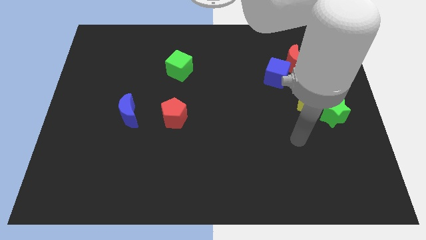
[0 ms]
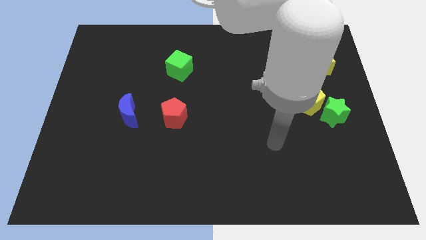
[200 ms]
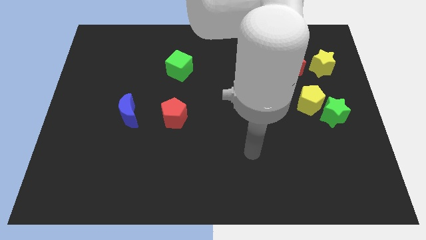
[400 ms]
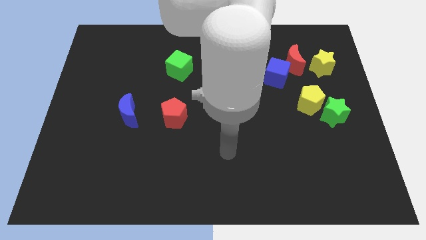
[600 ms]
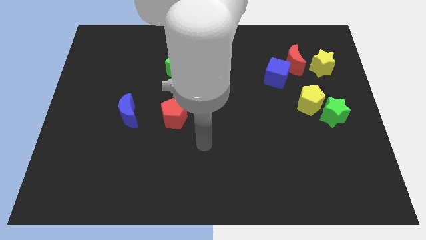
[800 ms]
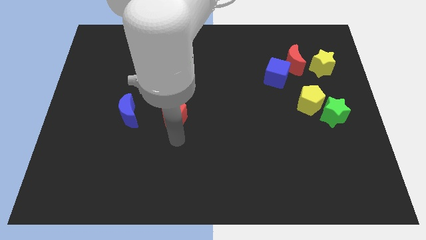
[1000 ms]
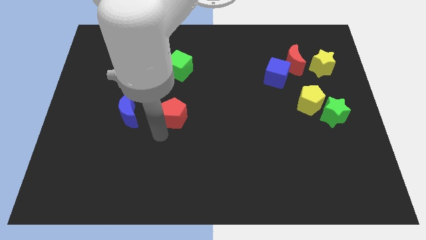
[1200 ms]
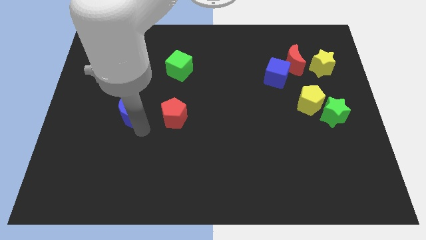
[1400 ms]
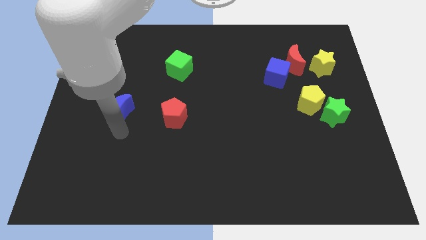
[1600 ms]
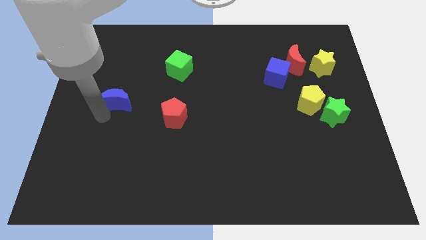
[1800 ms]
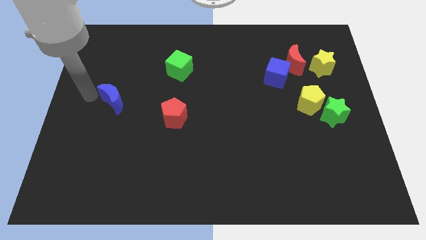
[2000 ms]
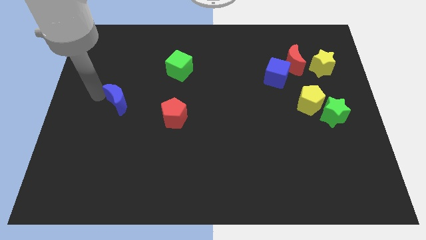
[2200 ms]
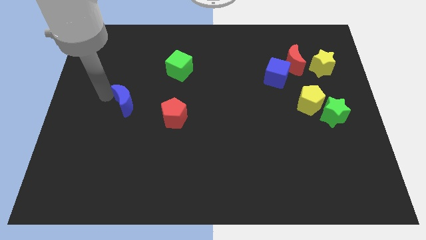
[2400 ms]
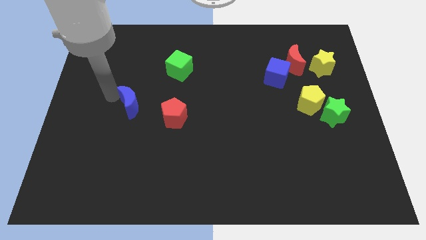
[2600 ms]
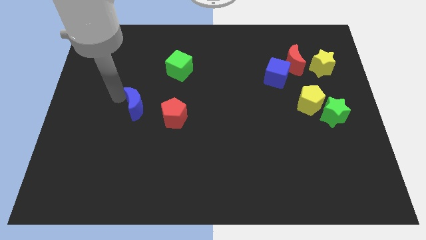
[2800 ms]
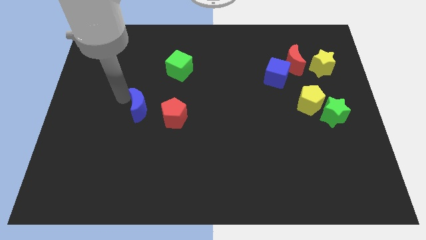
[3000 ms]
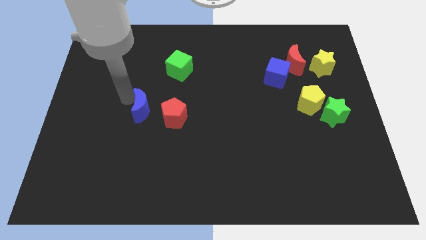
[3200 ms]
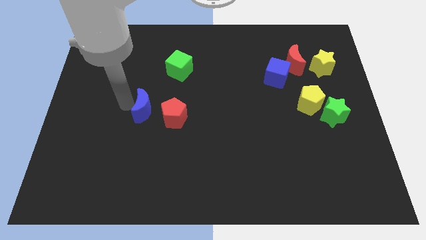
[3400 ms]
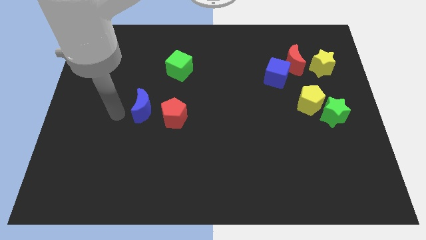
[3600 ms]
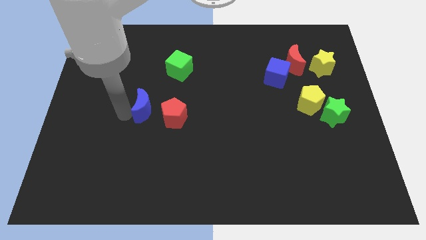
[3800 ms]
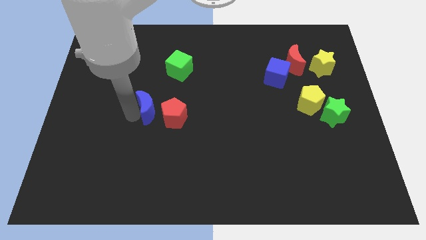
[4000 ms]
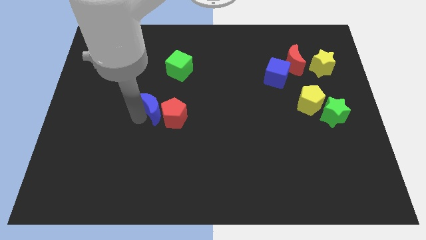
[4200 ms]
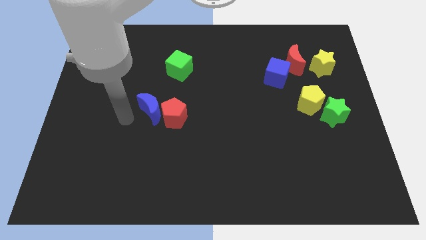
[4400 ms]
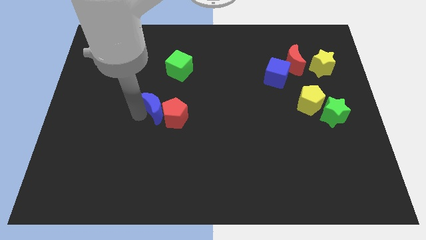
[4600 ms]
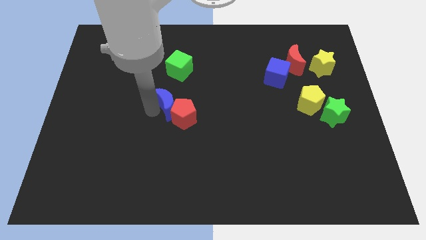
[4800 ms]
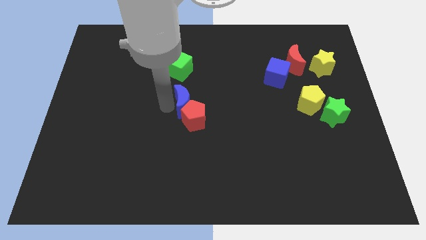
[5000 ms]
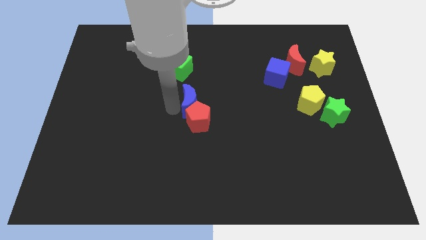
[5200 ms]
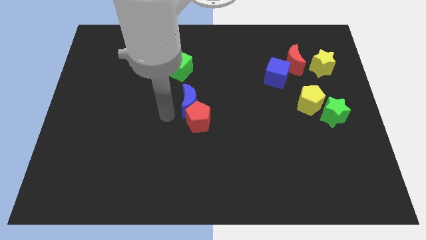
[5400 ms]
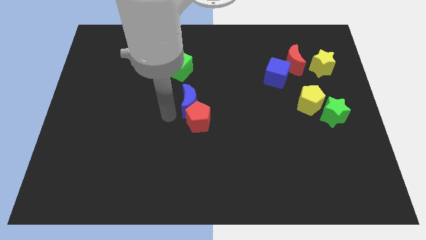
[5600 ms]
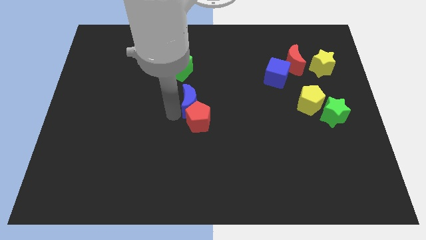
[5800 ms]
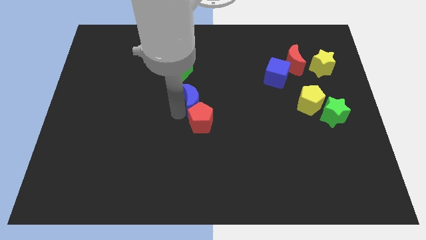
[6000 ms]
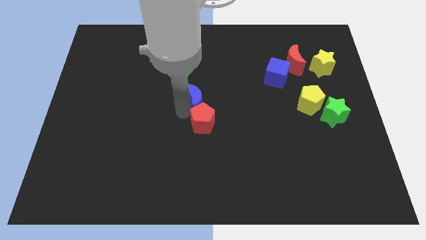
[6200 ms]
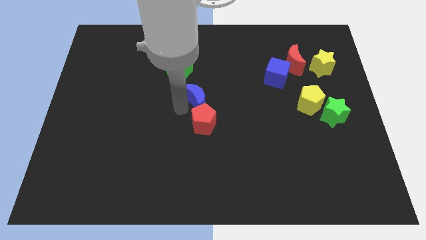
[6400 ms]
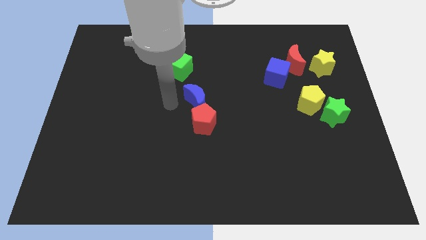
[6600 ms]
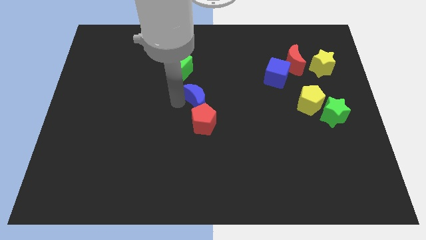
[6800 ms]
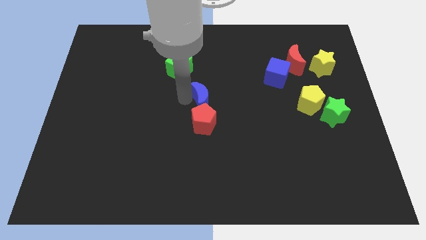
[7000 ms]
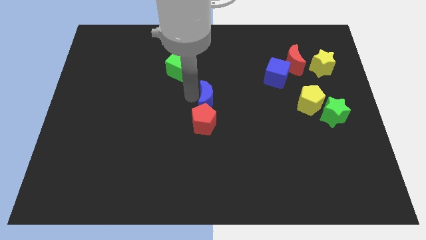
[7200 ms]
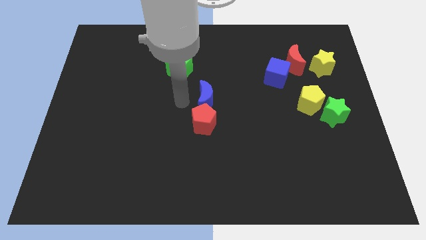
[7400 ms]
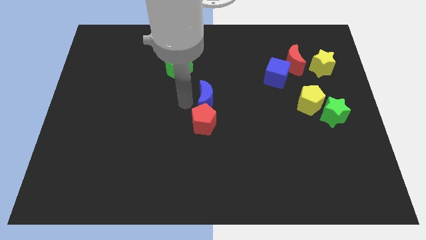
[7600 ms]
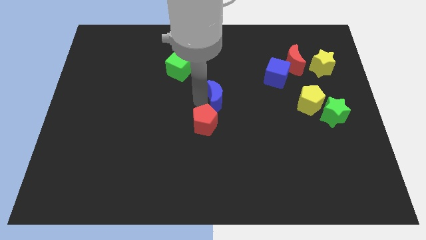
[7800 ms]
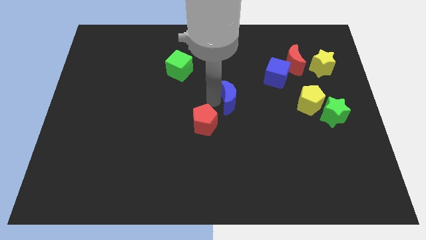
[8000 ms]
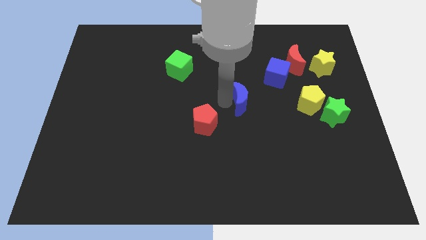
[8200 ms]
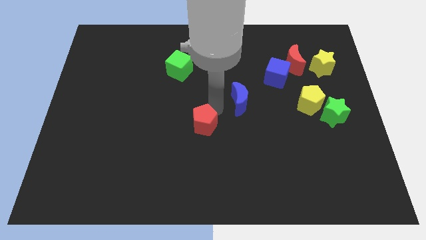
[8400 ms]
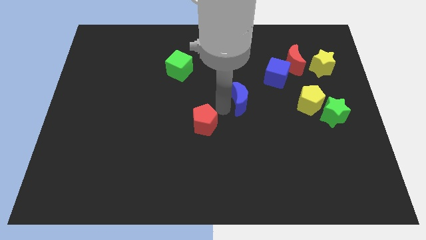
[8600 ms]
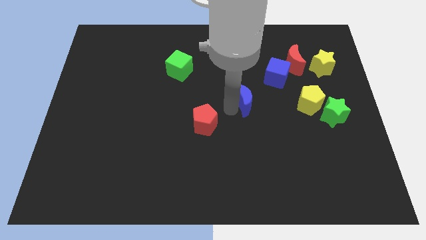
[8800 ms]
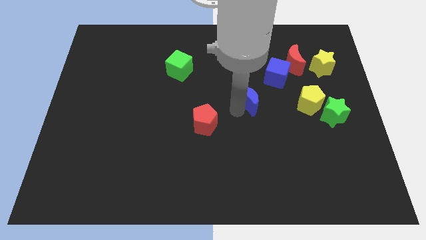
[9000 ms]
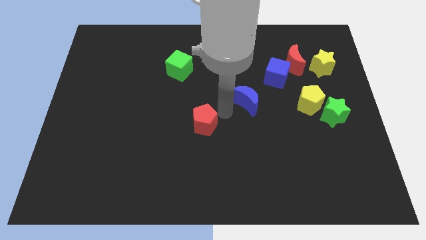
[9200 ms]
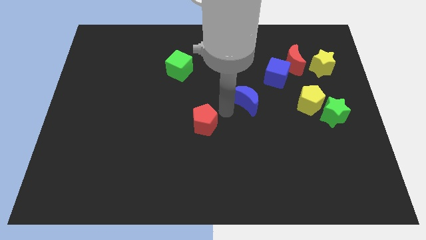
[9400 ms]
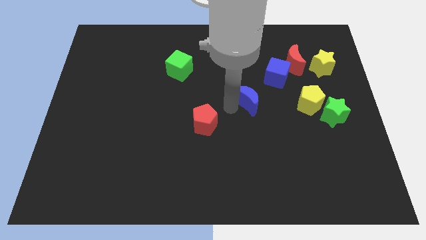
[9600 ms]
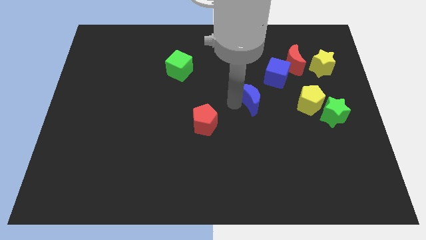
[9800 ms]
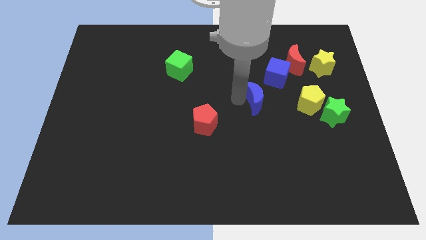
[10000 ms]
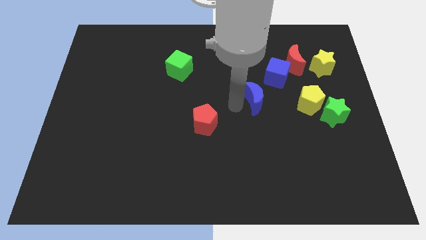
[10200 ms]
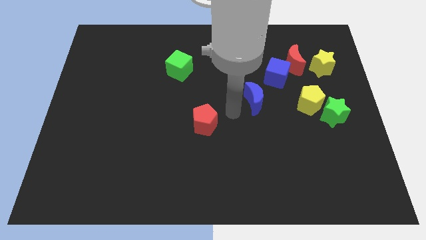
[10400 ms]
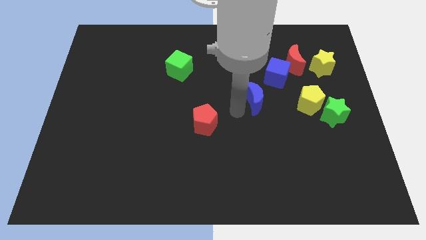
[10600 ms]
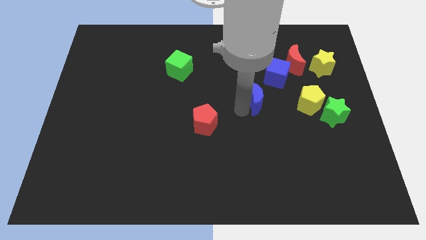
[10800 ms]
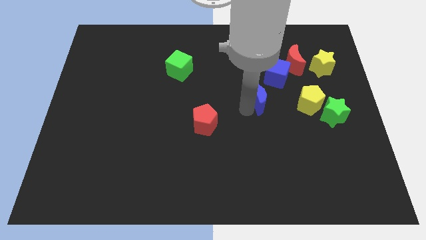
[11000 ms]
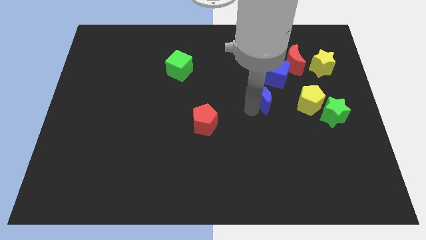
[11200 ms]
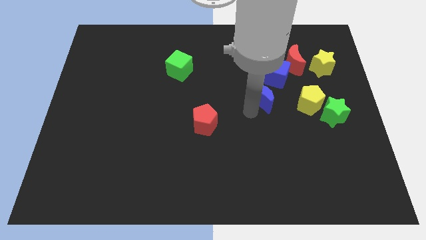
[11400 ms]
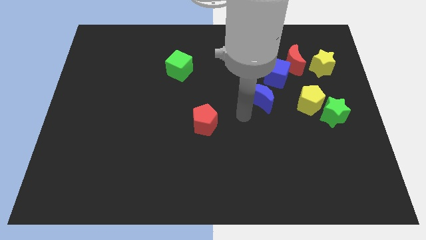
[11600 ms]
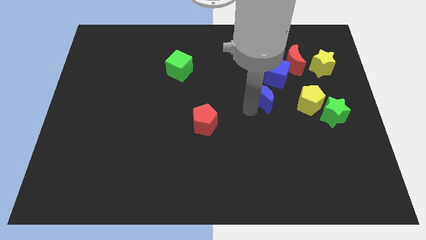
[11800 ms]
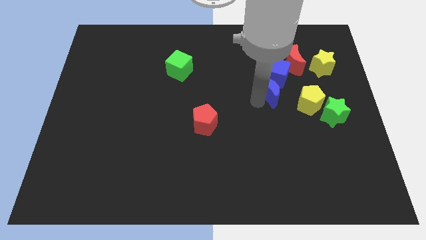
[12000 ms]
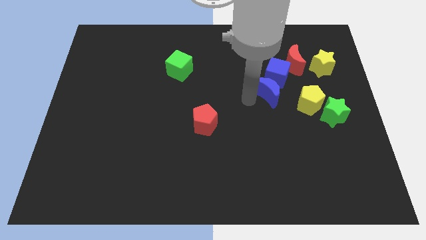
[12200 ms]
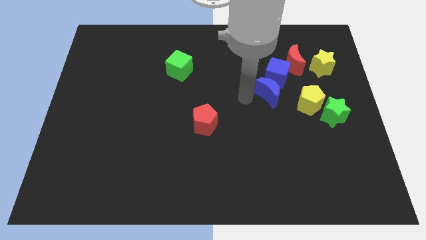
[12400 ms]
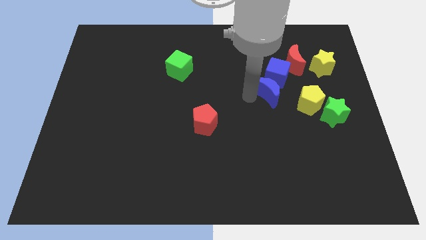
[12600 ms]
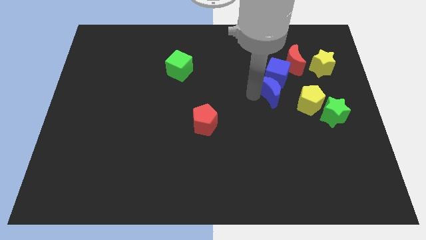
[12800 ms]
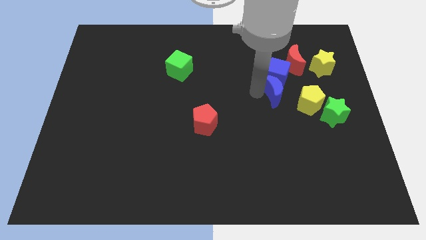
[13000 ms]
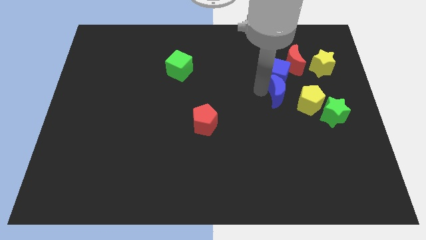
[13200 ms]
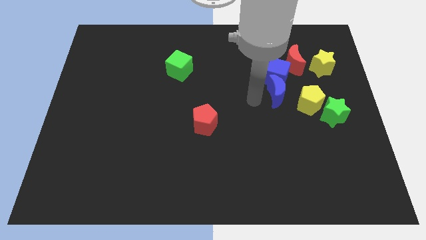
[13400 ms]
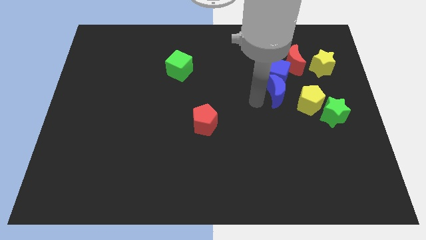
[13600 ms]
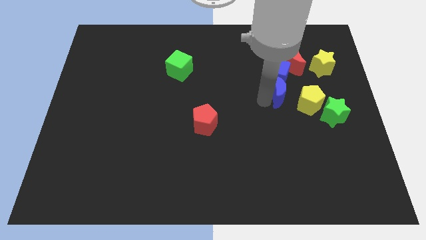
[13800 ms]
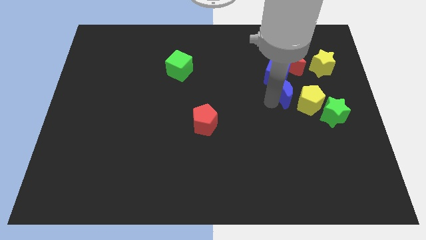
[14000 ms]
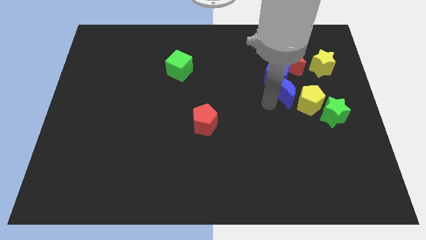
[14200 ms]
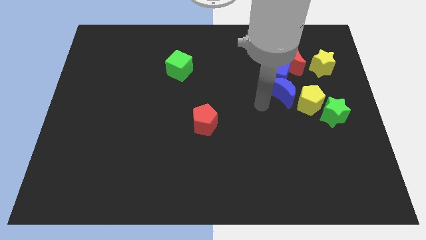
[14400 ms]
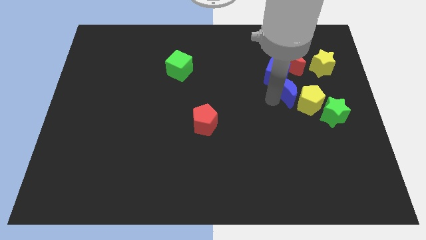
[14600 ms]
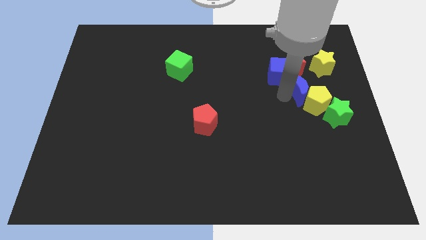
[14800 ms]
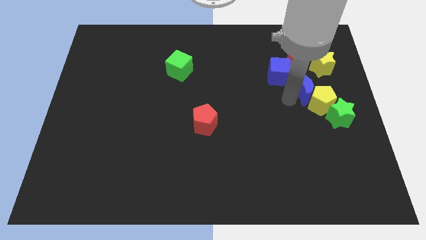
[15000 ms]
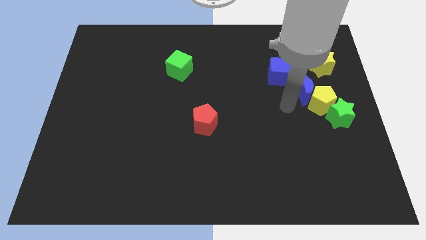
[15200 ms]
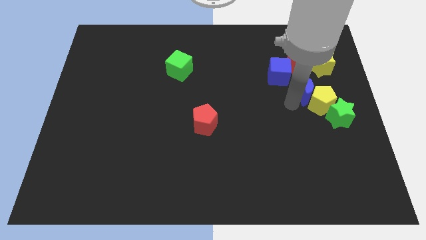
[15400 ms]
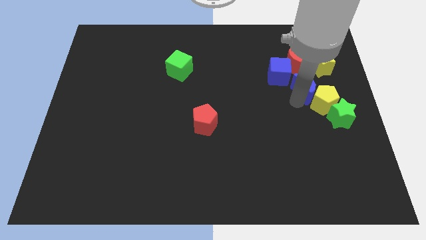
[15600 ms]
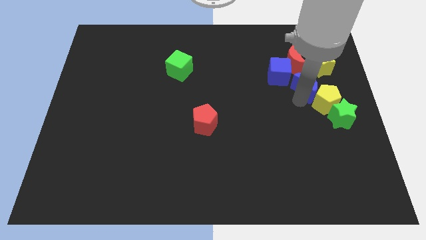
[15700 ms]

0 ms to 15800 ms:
move the blue moon right of the blue cube
